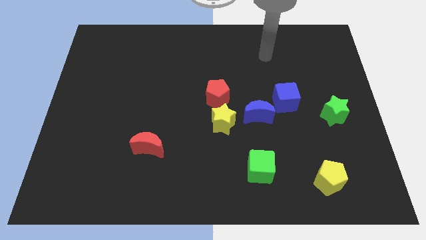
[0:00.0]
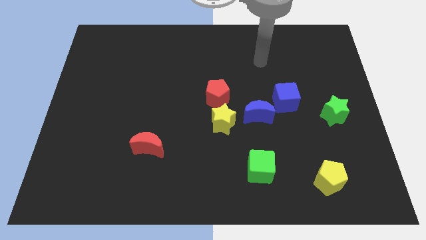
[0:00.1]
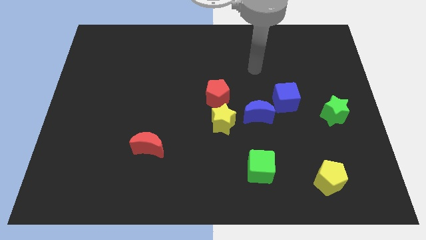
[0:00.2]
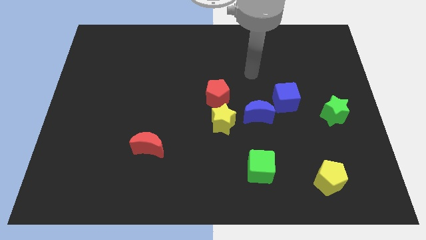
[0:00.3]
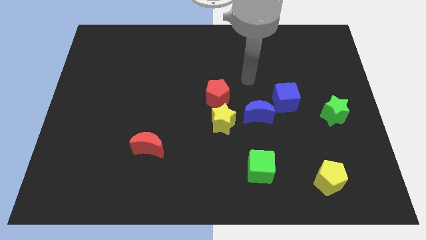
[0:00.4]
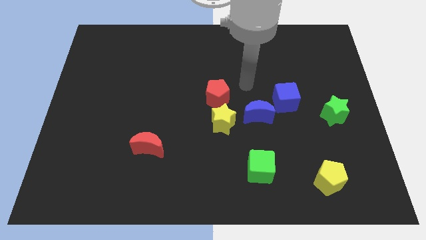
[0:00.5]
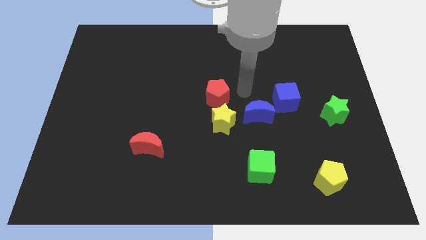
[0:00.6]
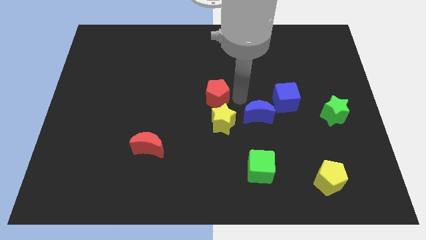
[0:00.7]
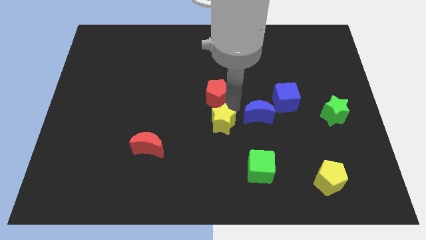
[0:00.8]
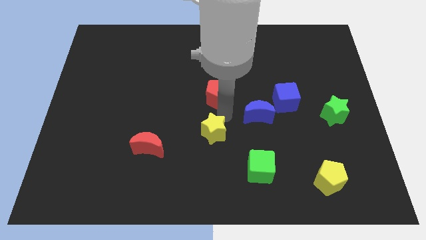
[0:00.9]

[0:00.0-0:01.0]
move the red pentagon away from the yellow star

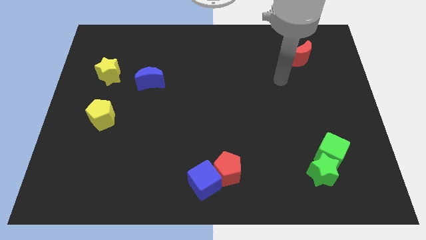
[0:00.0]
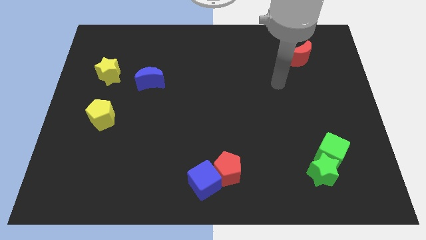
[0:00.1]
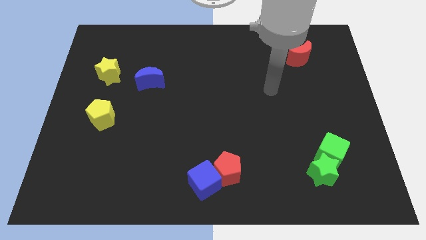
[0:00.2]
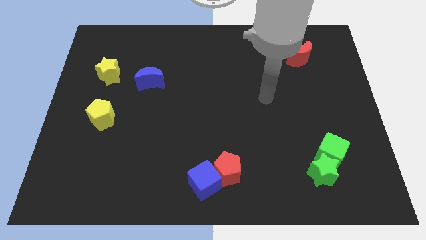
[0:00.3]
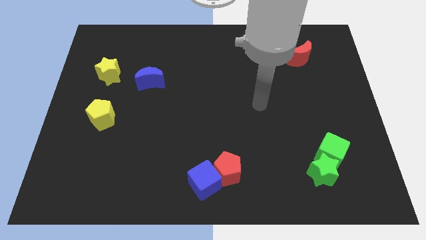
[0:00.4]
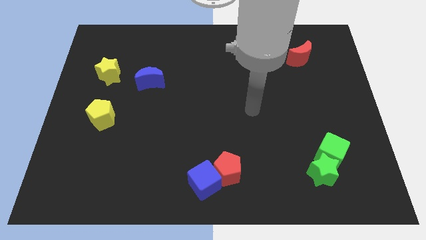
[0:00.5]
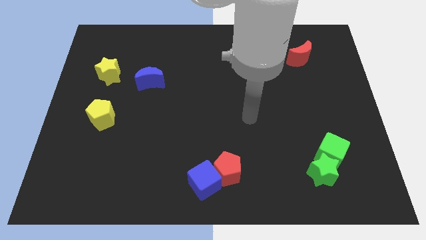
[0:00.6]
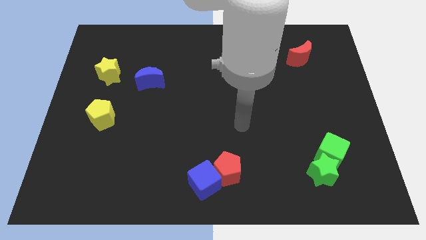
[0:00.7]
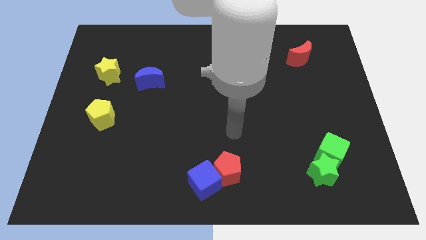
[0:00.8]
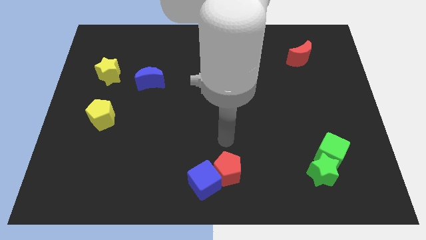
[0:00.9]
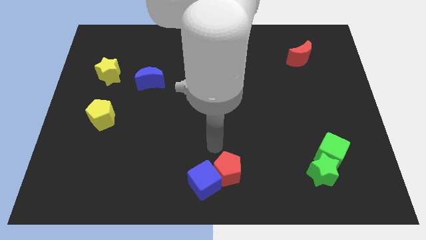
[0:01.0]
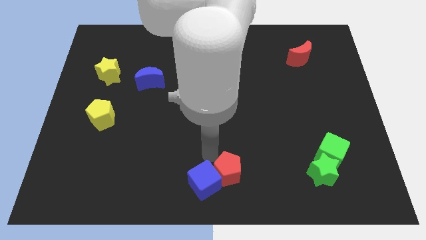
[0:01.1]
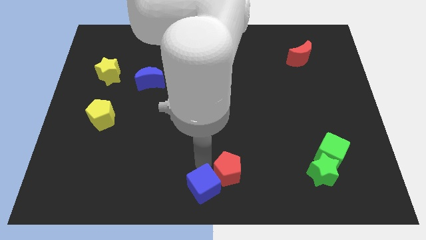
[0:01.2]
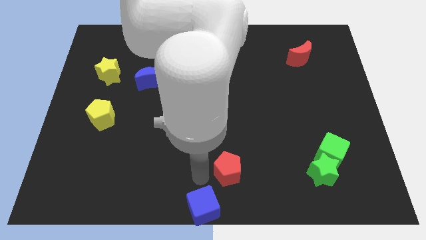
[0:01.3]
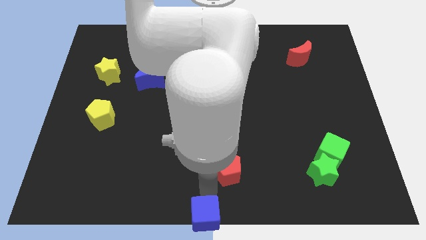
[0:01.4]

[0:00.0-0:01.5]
pull the red pentagon apart from the blue cube

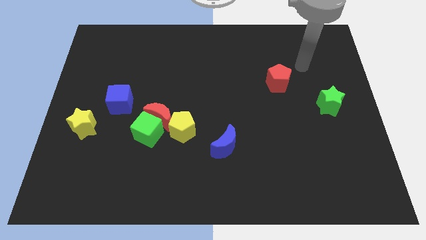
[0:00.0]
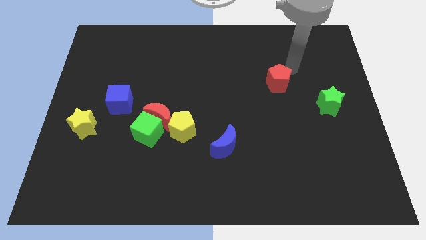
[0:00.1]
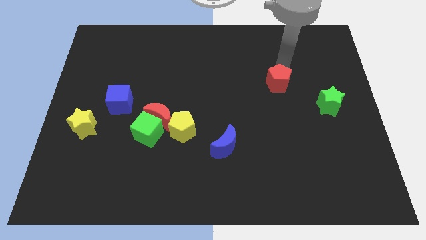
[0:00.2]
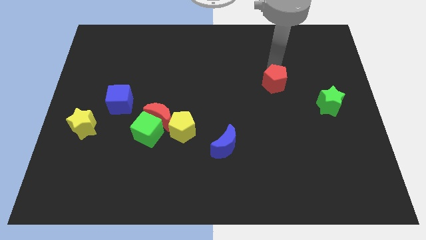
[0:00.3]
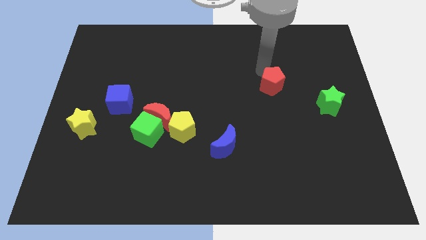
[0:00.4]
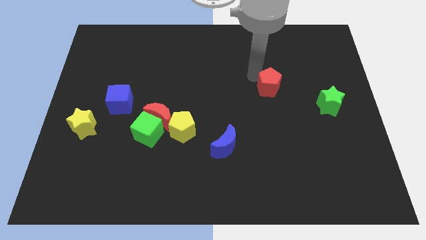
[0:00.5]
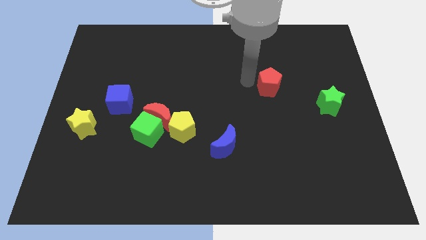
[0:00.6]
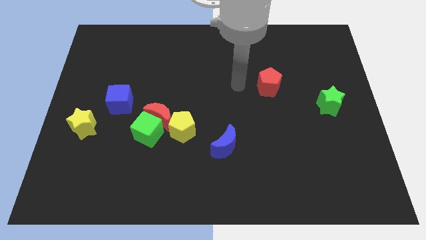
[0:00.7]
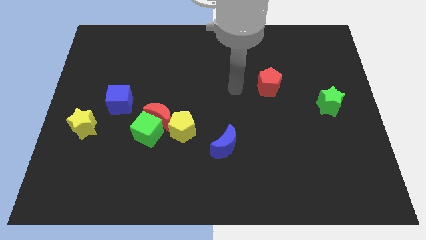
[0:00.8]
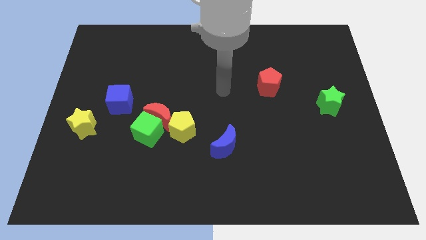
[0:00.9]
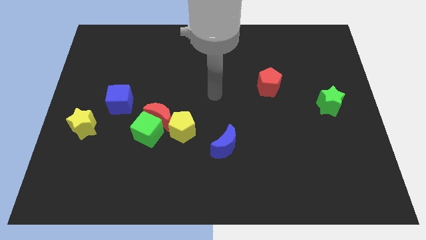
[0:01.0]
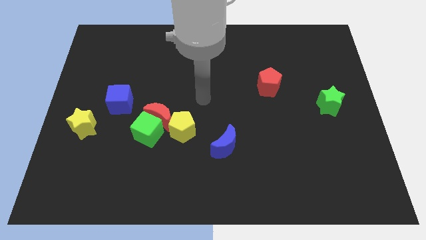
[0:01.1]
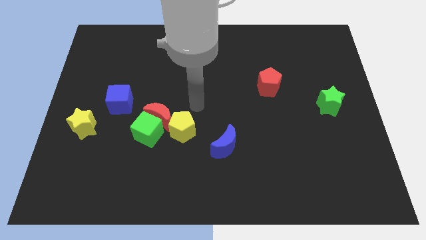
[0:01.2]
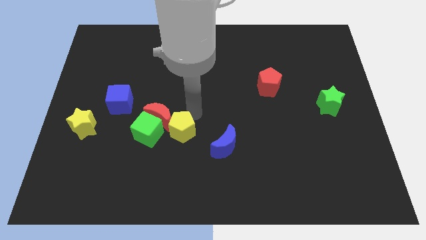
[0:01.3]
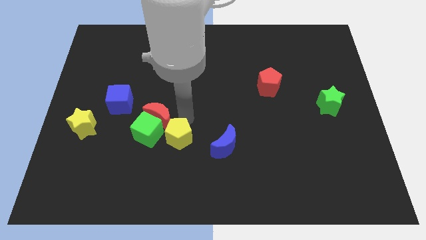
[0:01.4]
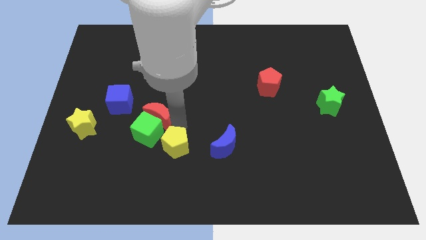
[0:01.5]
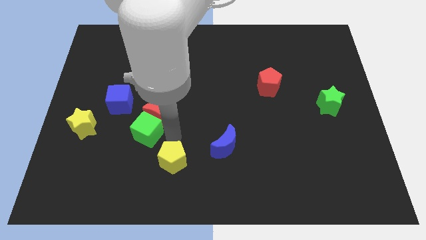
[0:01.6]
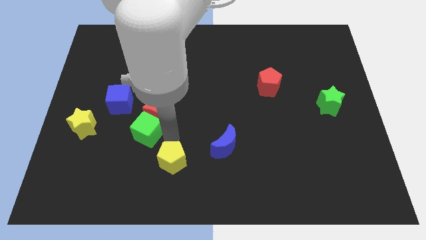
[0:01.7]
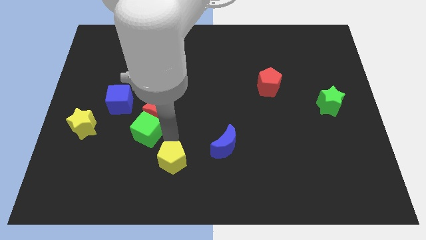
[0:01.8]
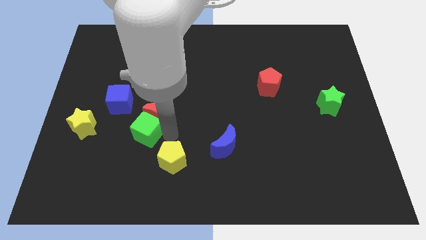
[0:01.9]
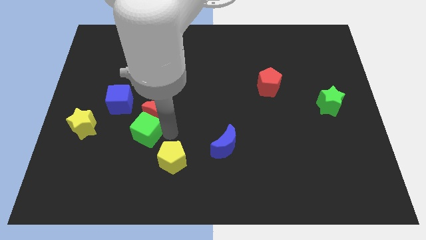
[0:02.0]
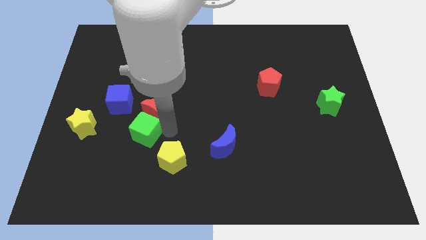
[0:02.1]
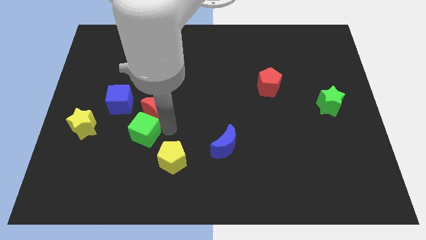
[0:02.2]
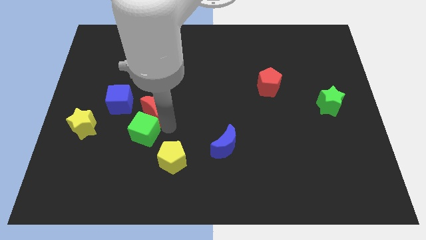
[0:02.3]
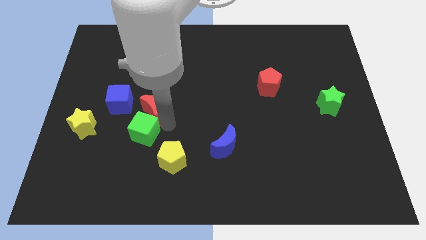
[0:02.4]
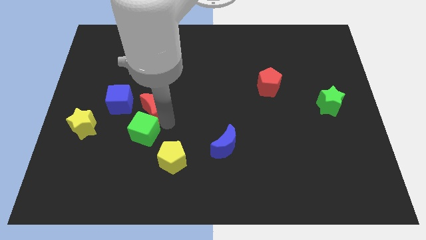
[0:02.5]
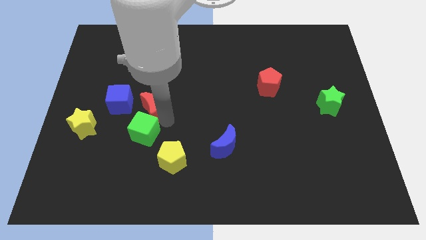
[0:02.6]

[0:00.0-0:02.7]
separate the red moon from the green cube and yellow pentagon

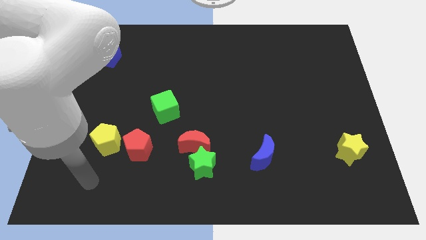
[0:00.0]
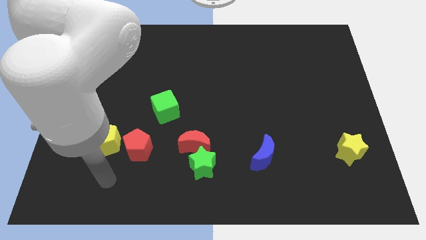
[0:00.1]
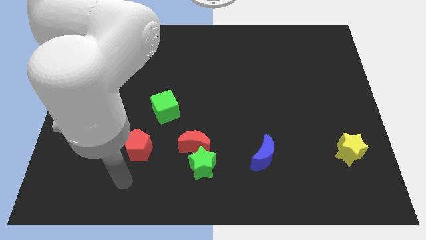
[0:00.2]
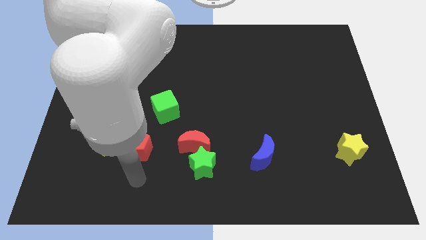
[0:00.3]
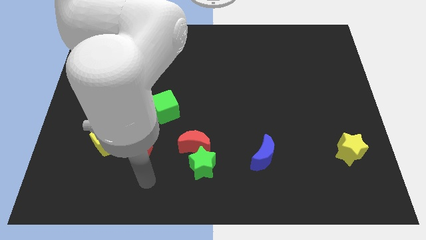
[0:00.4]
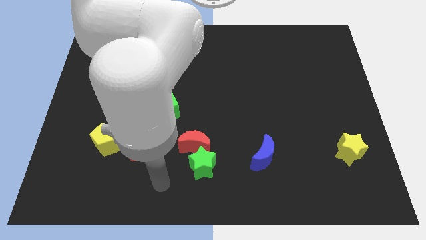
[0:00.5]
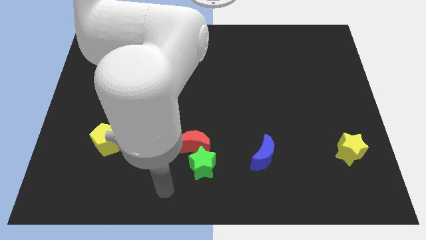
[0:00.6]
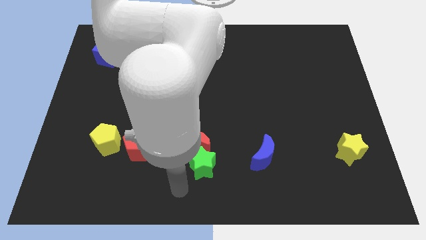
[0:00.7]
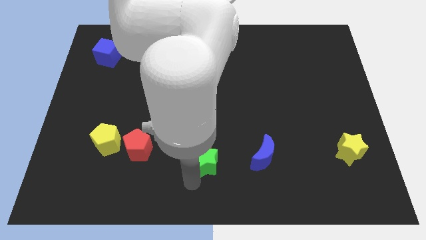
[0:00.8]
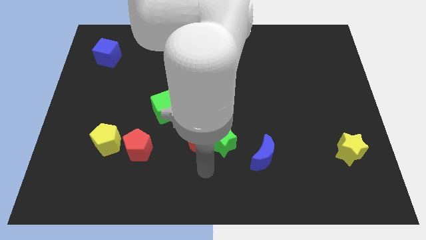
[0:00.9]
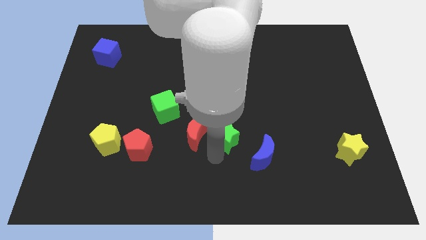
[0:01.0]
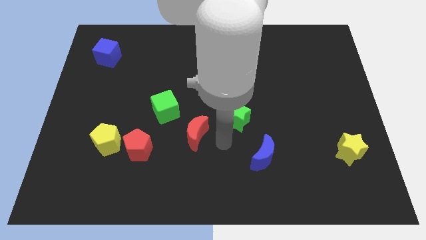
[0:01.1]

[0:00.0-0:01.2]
move the red moon away from the green star

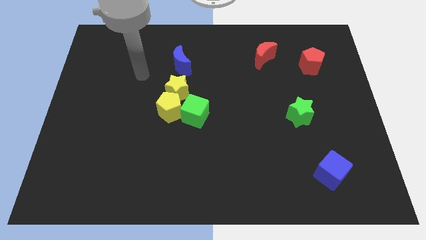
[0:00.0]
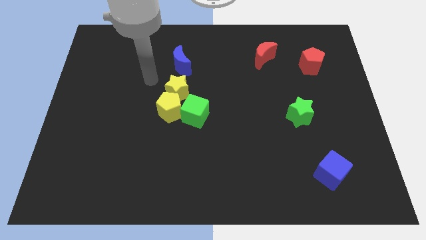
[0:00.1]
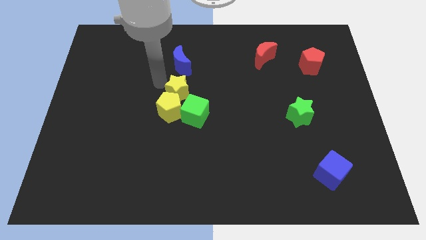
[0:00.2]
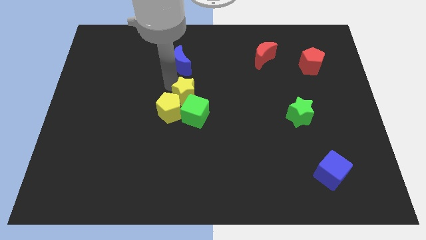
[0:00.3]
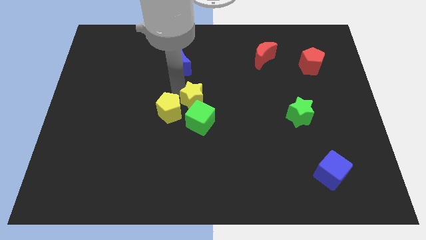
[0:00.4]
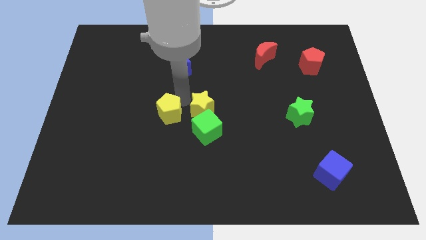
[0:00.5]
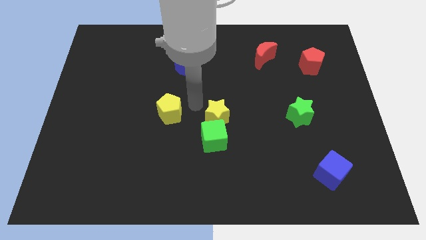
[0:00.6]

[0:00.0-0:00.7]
move the yellow pentagon away from the yellow star and green cube

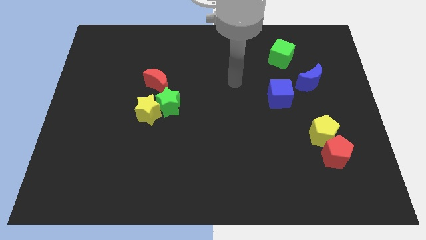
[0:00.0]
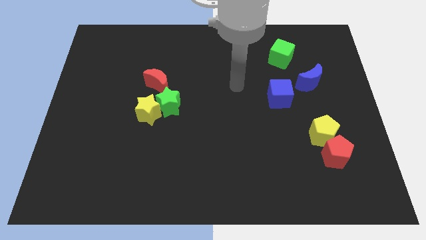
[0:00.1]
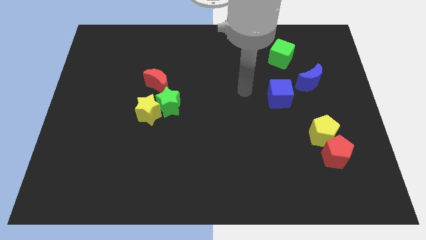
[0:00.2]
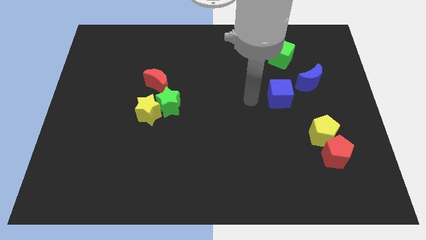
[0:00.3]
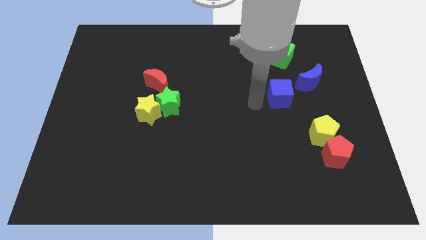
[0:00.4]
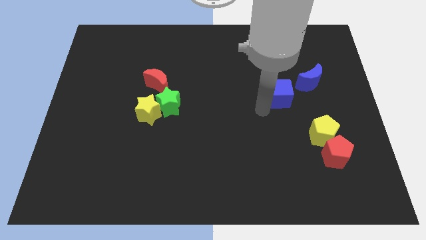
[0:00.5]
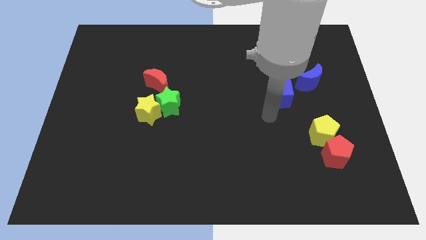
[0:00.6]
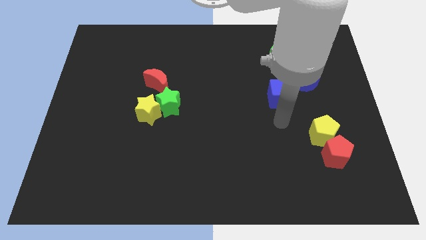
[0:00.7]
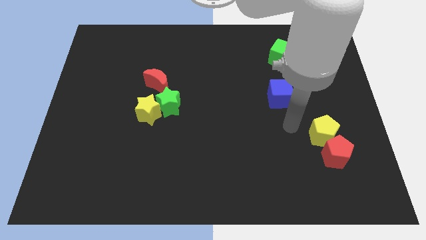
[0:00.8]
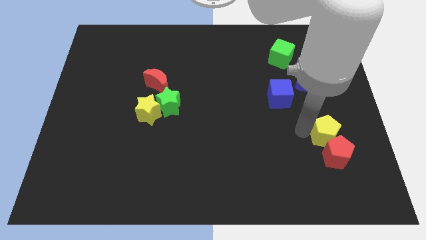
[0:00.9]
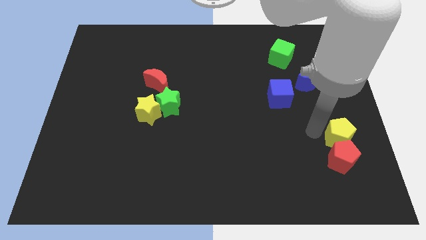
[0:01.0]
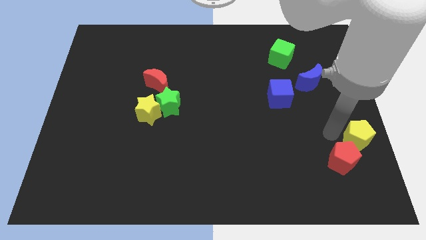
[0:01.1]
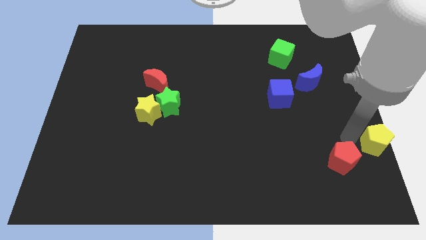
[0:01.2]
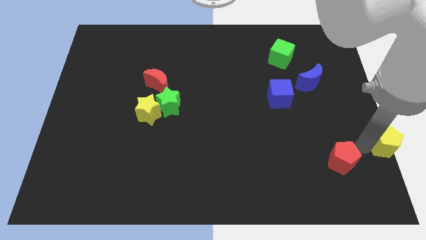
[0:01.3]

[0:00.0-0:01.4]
pull the red pentagon apart from the yellow pentagon

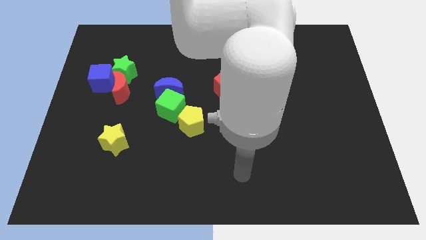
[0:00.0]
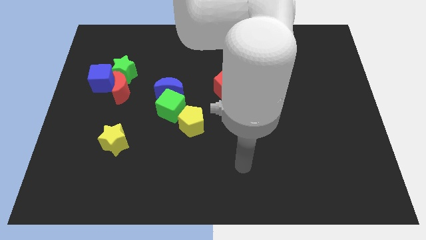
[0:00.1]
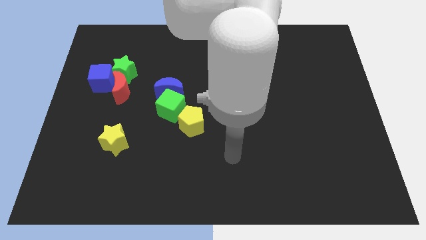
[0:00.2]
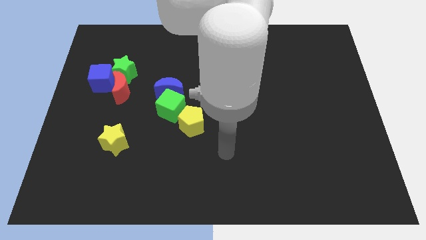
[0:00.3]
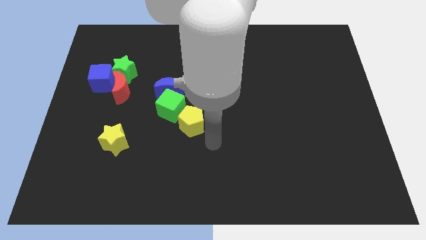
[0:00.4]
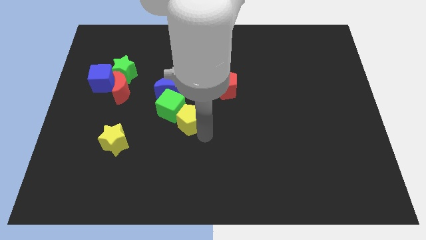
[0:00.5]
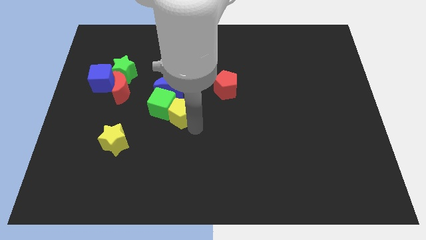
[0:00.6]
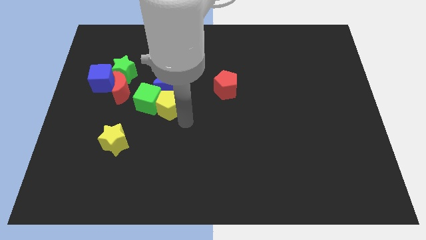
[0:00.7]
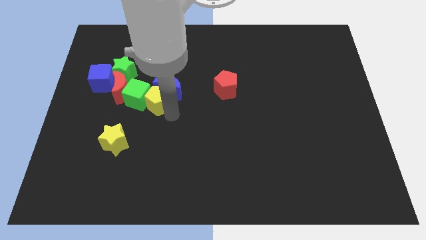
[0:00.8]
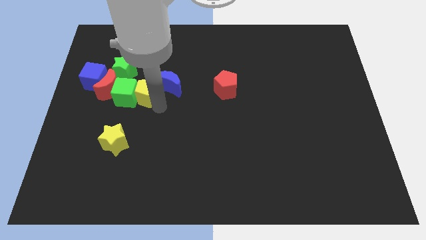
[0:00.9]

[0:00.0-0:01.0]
separate the blue moon from the green cube
